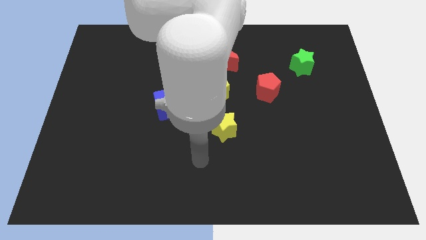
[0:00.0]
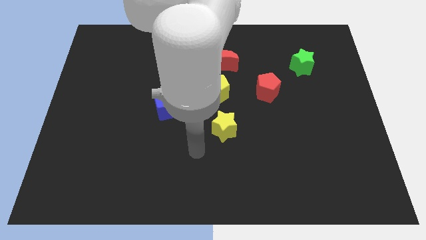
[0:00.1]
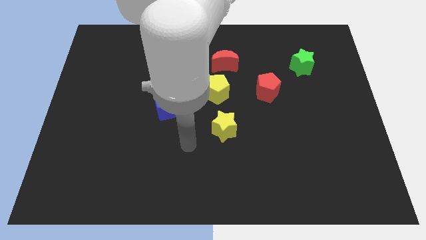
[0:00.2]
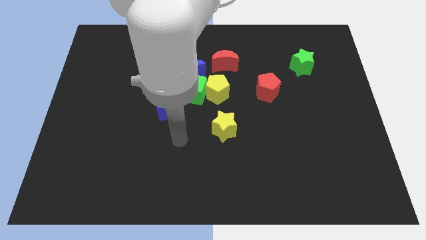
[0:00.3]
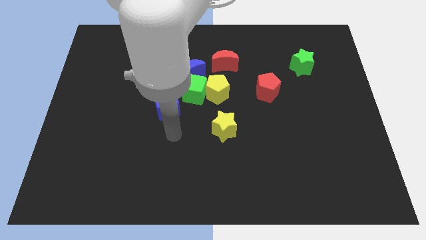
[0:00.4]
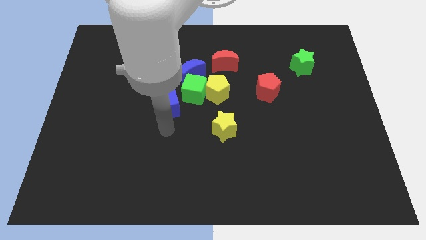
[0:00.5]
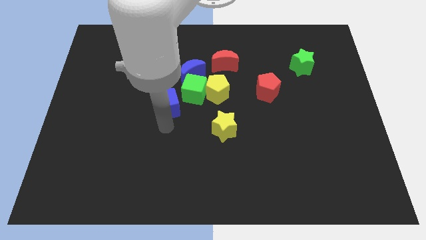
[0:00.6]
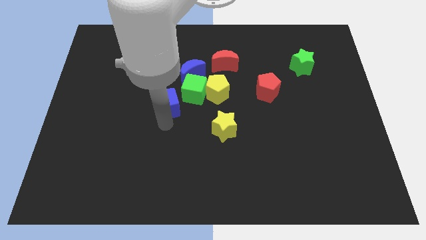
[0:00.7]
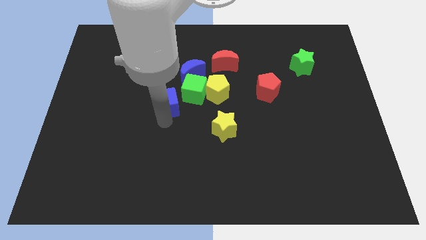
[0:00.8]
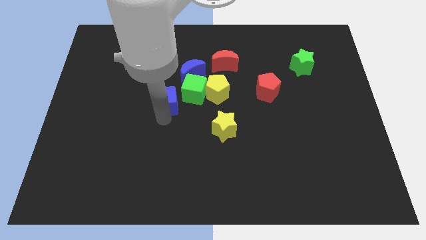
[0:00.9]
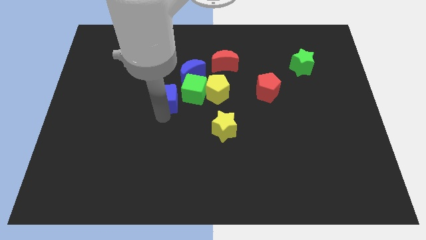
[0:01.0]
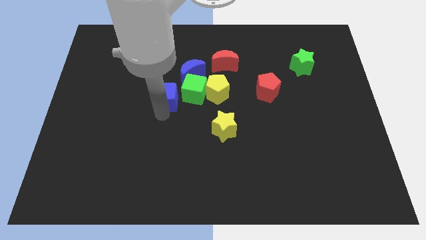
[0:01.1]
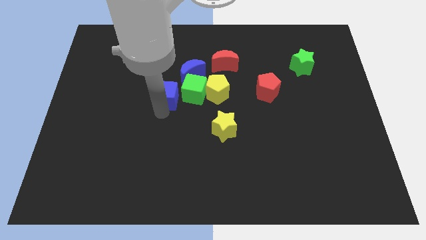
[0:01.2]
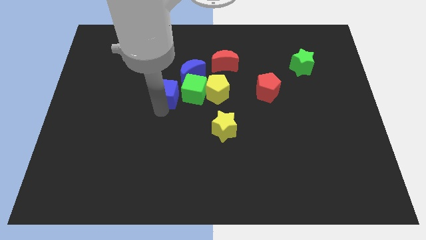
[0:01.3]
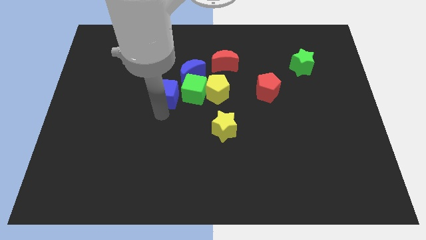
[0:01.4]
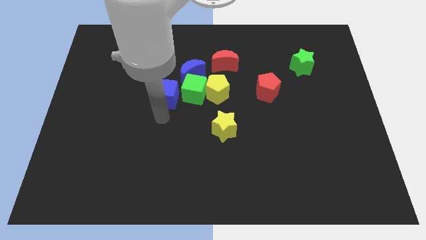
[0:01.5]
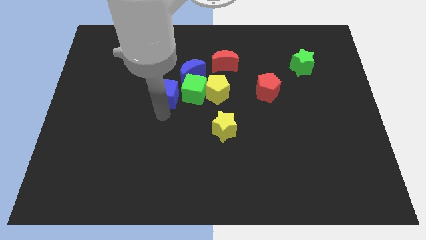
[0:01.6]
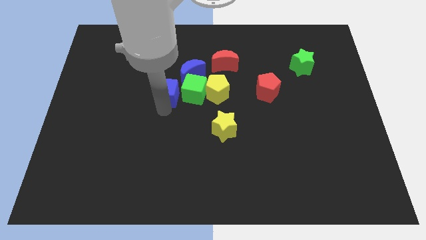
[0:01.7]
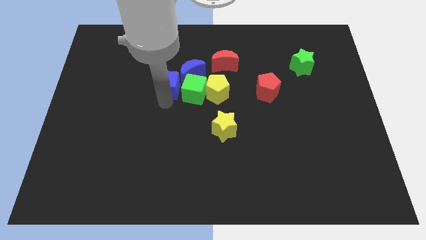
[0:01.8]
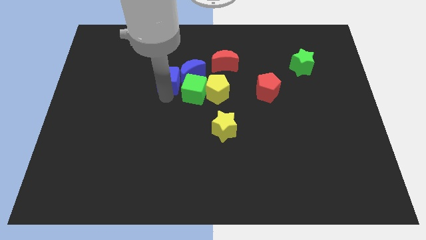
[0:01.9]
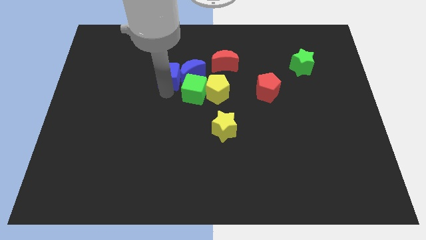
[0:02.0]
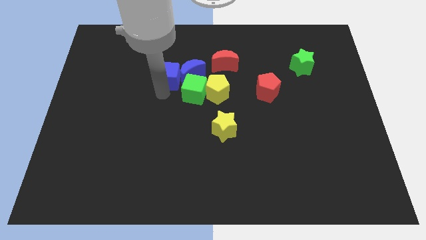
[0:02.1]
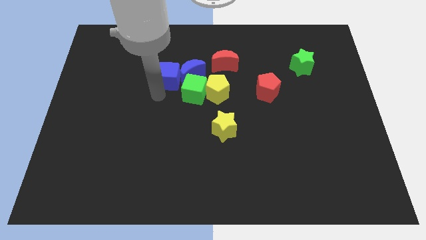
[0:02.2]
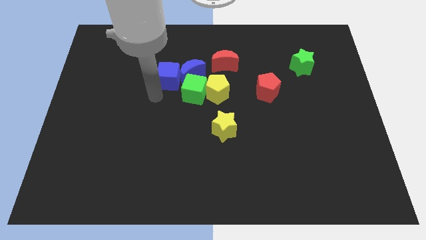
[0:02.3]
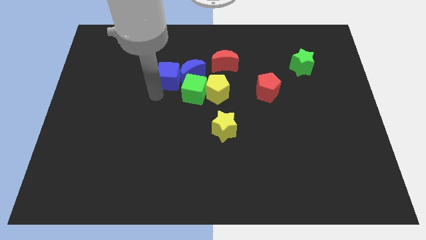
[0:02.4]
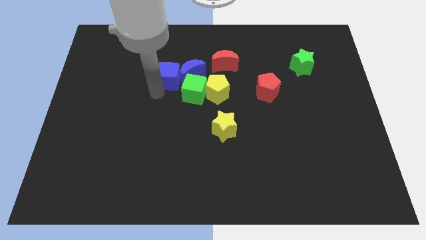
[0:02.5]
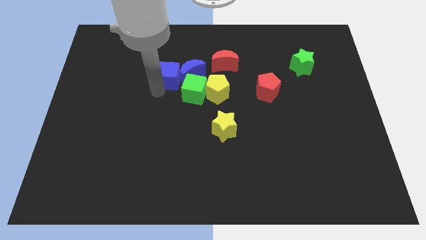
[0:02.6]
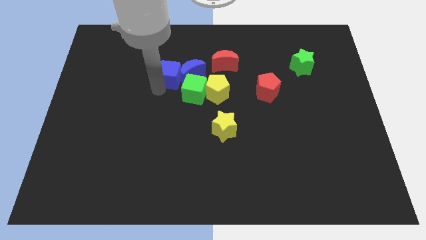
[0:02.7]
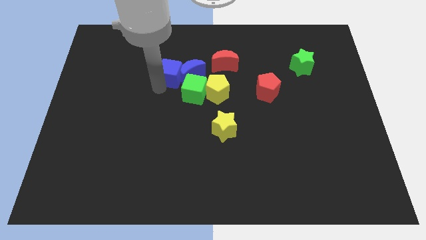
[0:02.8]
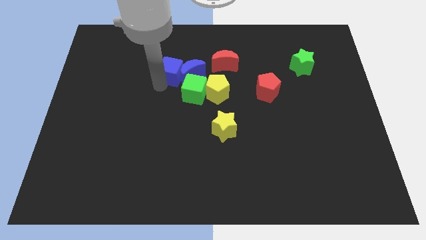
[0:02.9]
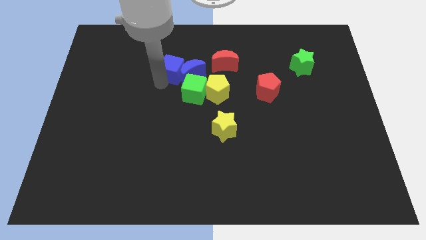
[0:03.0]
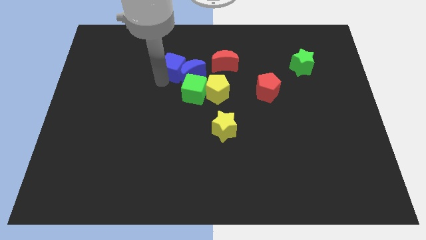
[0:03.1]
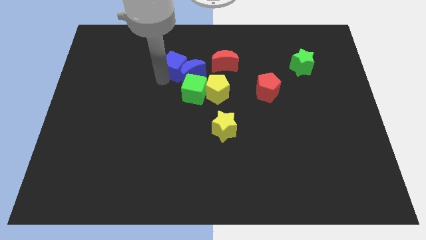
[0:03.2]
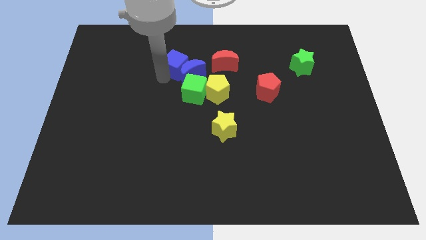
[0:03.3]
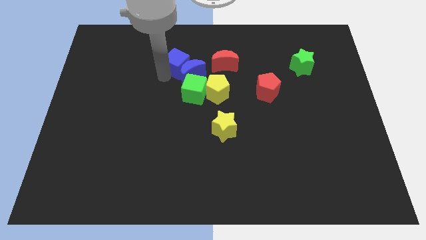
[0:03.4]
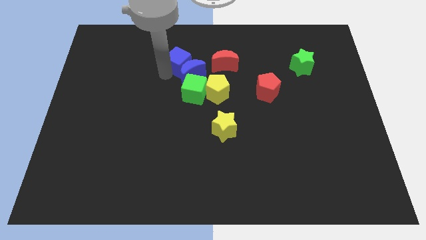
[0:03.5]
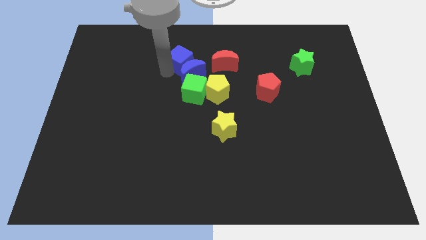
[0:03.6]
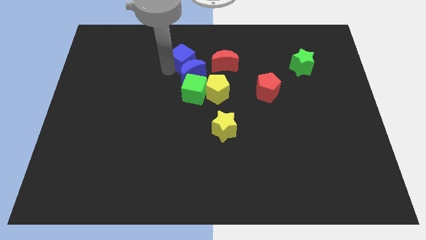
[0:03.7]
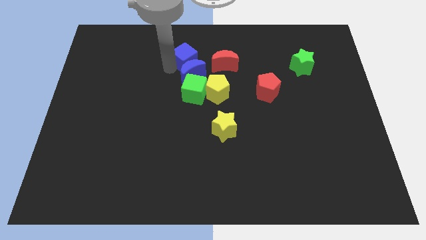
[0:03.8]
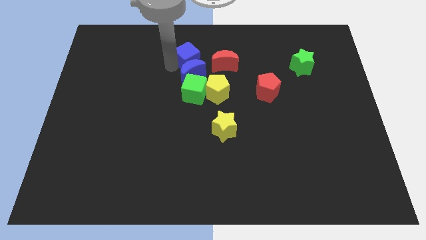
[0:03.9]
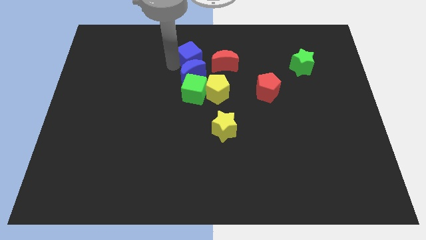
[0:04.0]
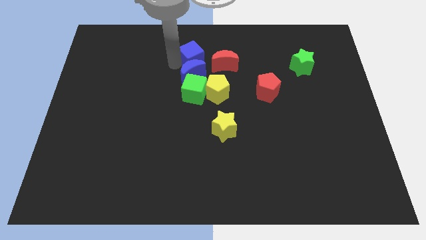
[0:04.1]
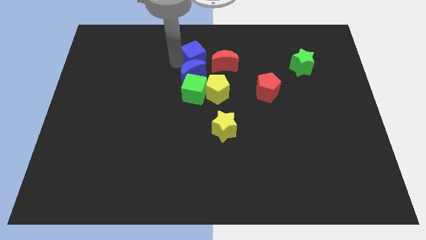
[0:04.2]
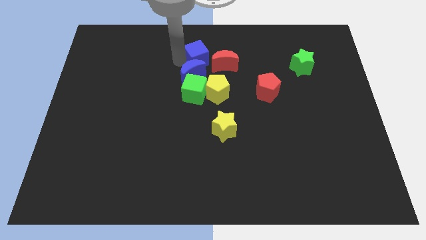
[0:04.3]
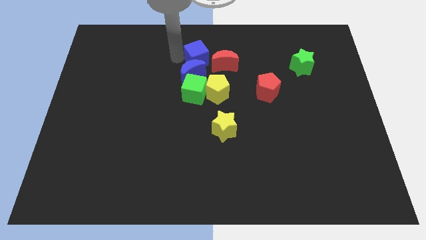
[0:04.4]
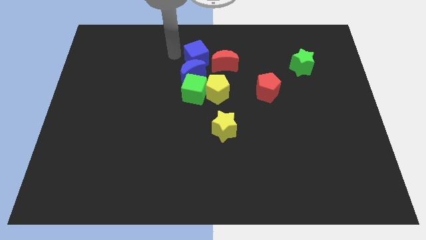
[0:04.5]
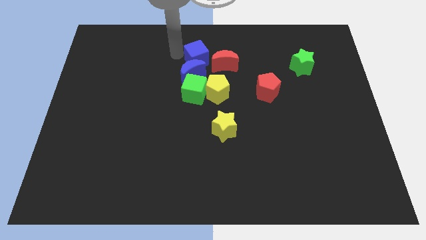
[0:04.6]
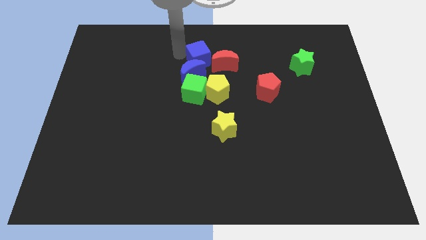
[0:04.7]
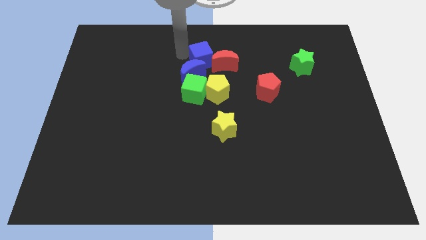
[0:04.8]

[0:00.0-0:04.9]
move the blue cube next to the red moon

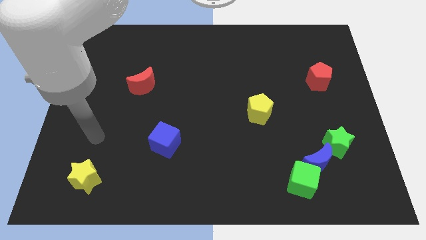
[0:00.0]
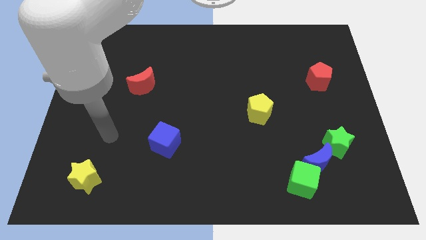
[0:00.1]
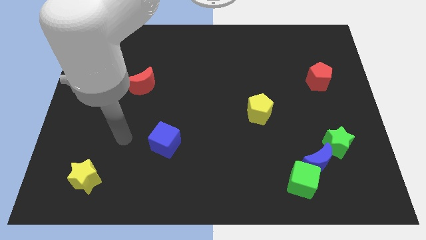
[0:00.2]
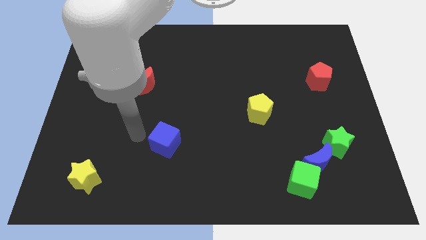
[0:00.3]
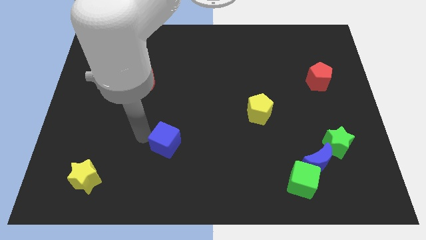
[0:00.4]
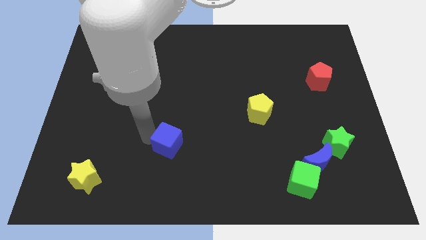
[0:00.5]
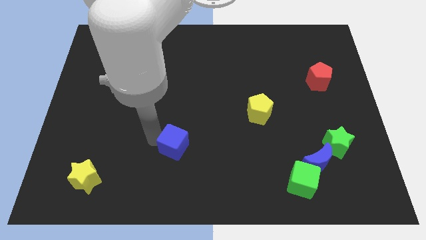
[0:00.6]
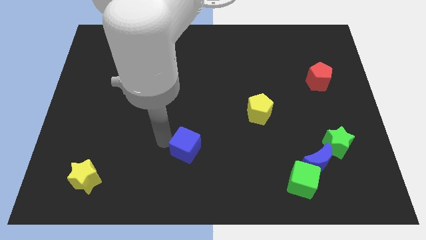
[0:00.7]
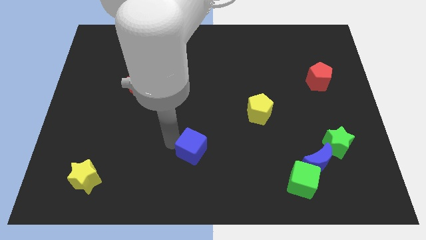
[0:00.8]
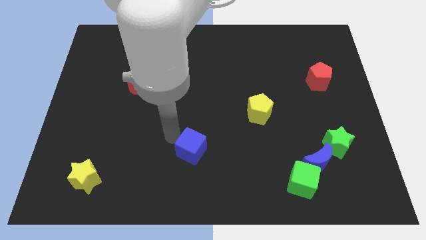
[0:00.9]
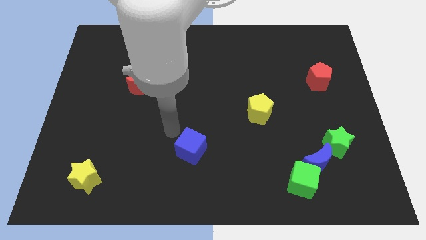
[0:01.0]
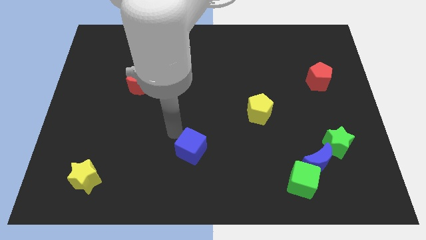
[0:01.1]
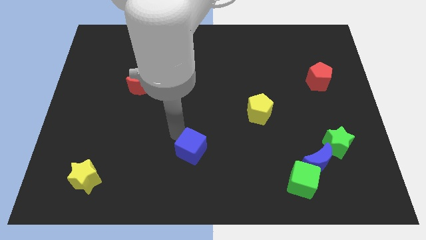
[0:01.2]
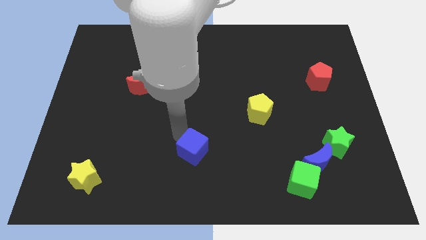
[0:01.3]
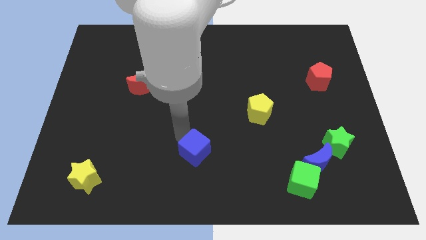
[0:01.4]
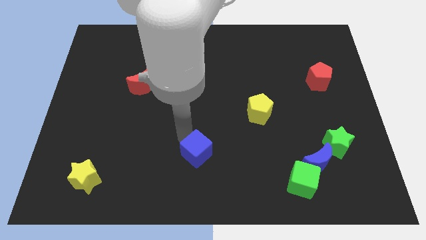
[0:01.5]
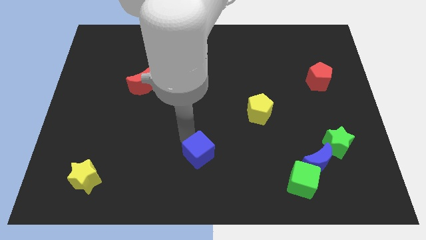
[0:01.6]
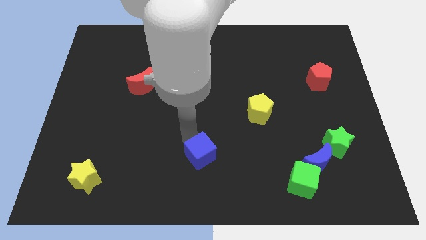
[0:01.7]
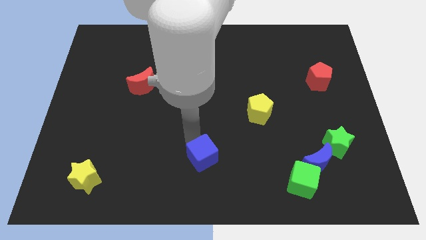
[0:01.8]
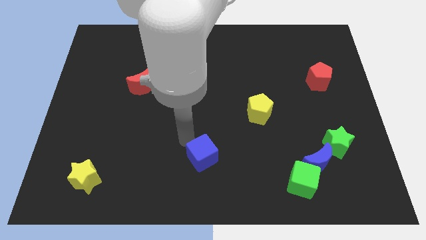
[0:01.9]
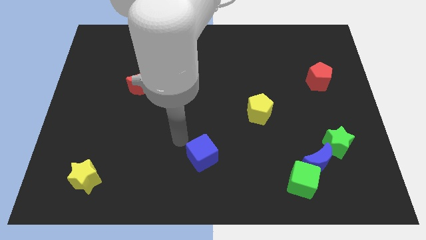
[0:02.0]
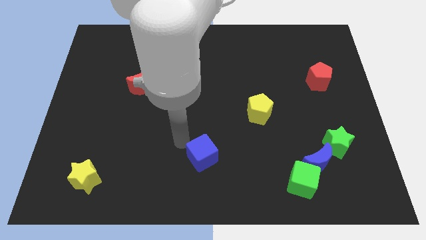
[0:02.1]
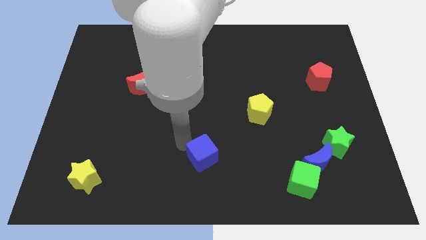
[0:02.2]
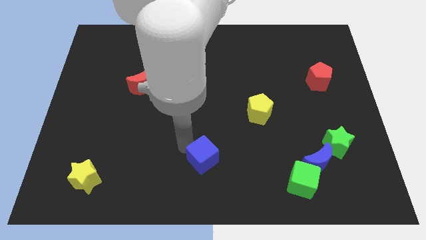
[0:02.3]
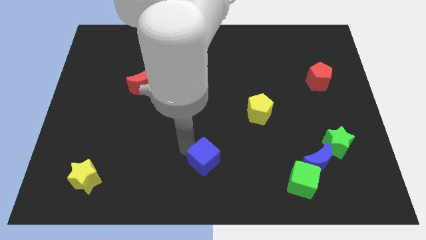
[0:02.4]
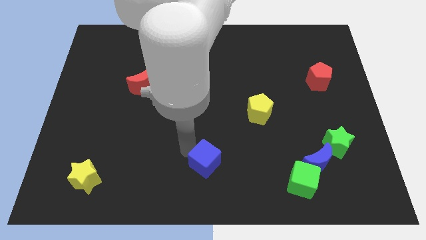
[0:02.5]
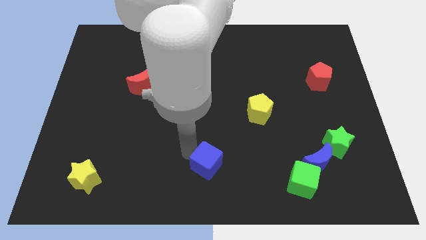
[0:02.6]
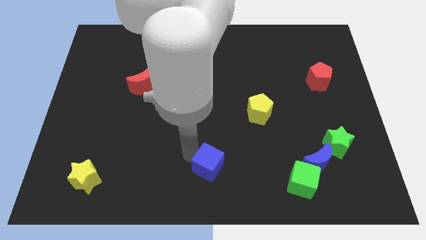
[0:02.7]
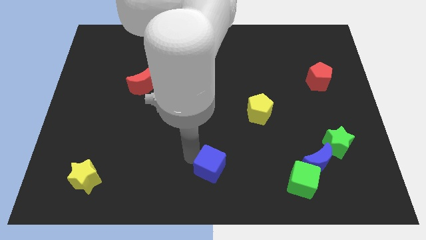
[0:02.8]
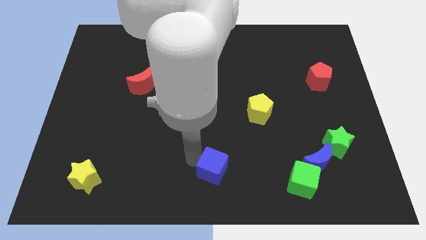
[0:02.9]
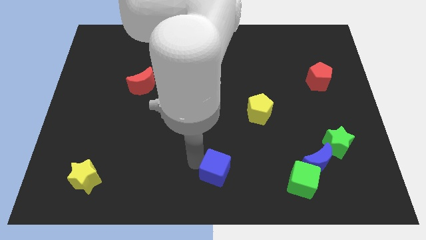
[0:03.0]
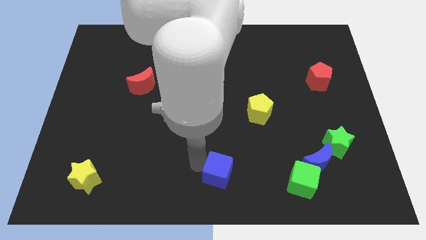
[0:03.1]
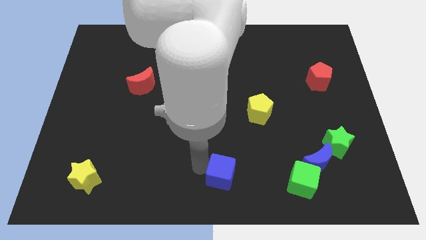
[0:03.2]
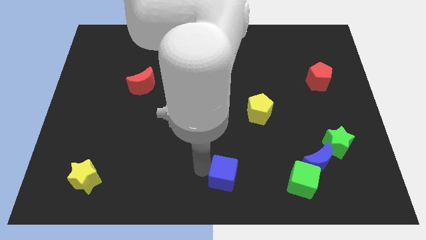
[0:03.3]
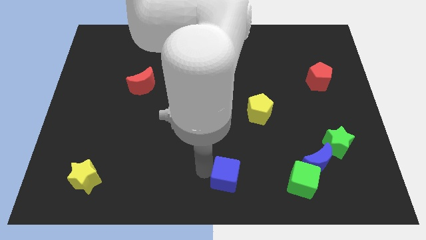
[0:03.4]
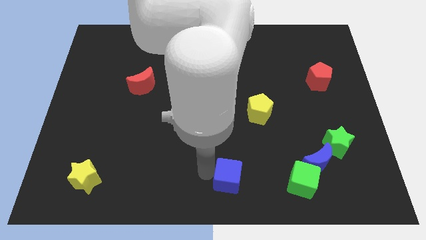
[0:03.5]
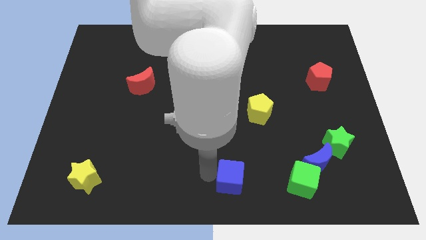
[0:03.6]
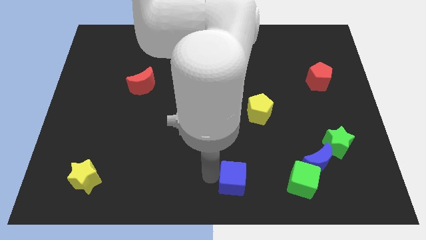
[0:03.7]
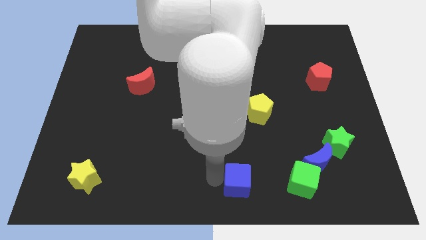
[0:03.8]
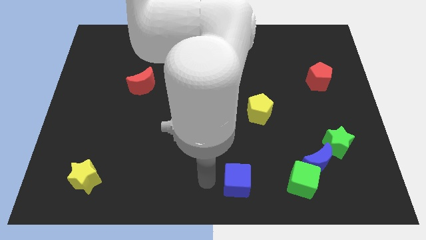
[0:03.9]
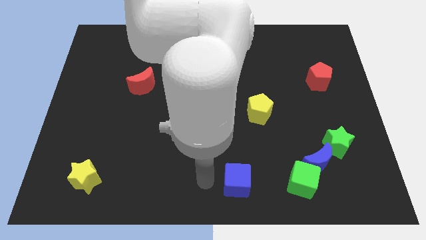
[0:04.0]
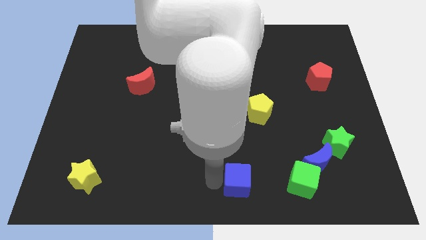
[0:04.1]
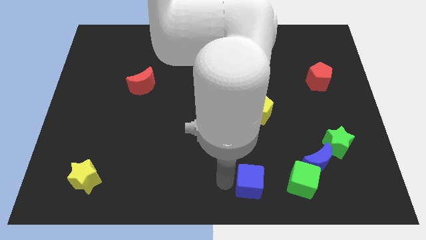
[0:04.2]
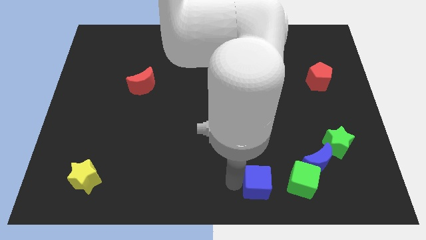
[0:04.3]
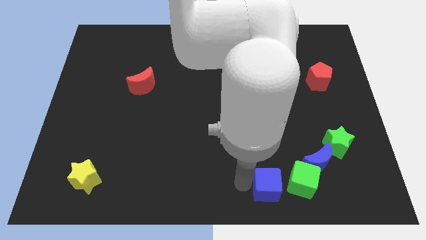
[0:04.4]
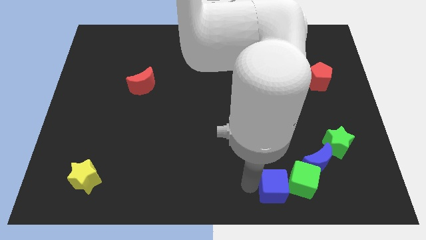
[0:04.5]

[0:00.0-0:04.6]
move the blue cube next to the green cube
